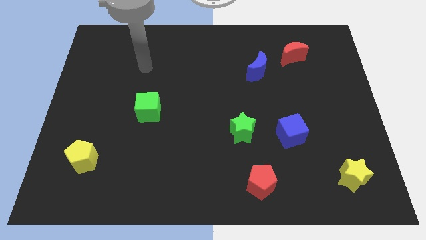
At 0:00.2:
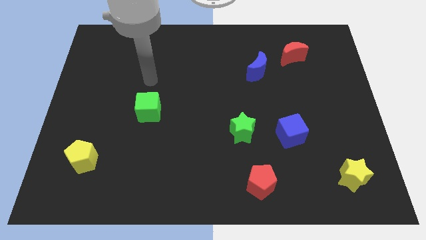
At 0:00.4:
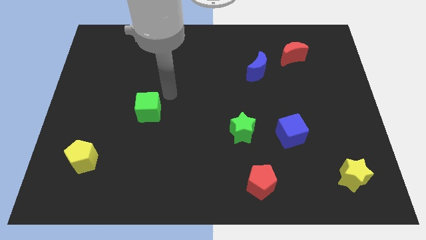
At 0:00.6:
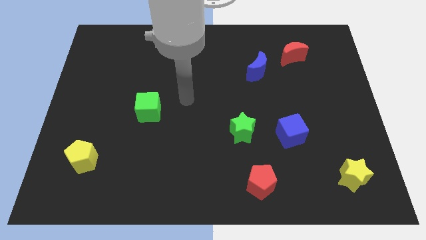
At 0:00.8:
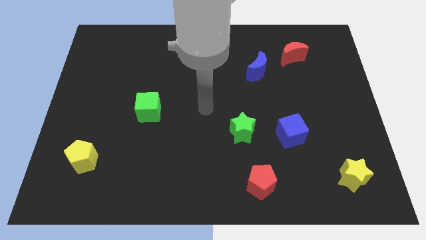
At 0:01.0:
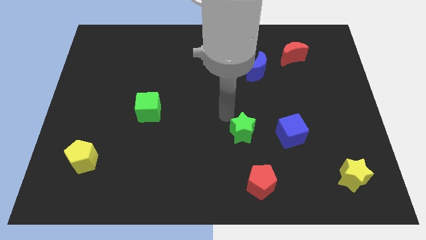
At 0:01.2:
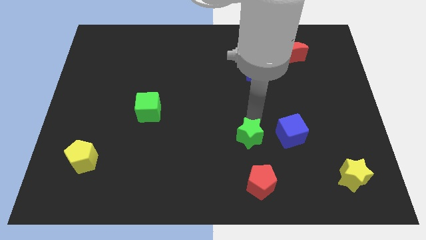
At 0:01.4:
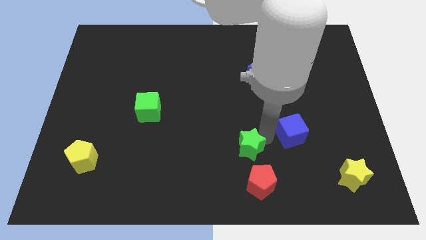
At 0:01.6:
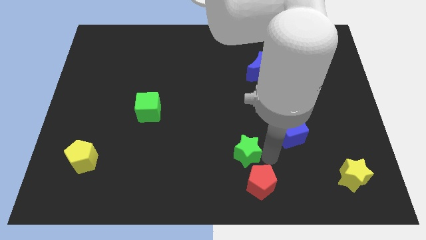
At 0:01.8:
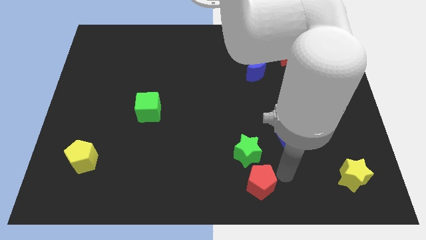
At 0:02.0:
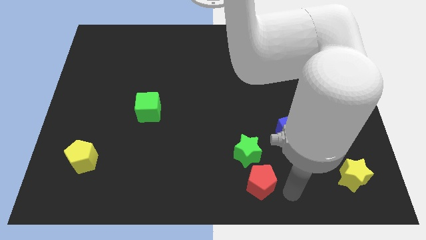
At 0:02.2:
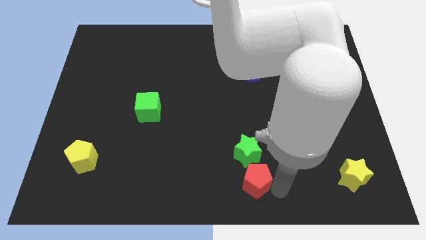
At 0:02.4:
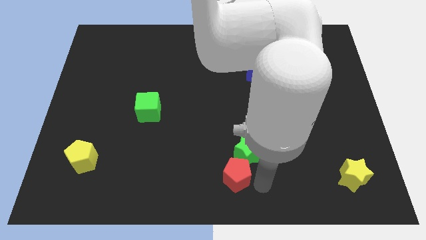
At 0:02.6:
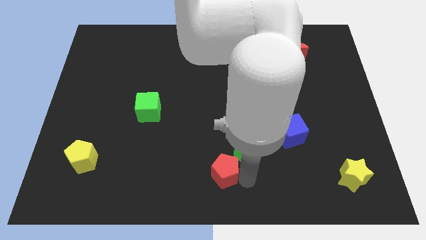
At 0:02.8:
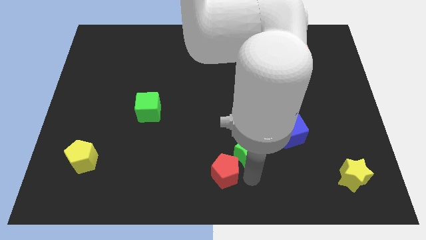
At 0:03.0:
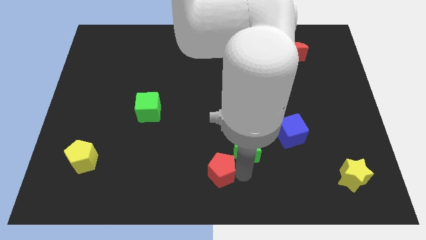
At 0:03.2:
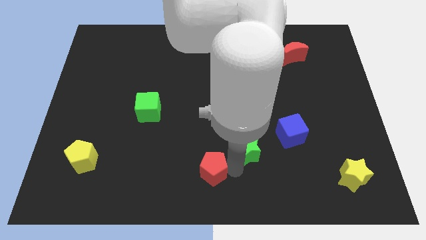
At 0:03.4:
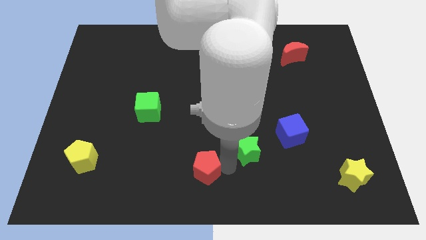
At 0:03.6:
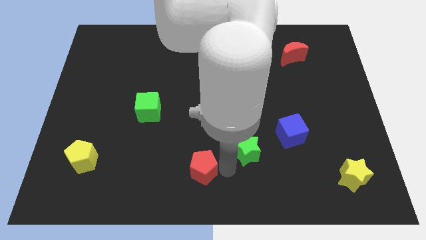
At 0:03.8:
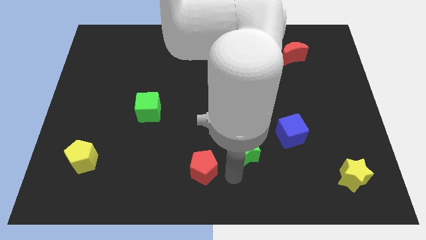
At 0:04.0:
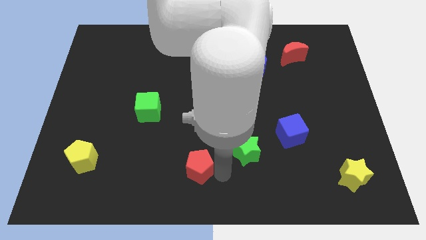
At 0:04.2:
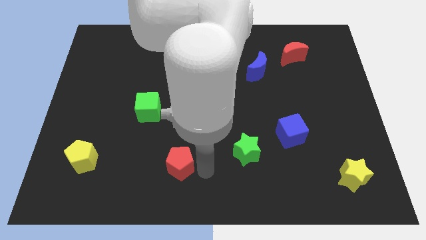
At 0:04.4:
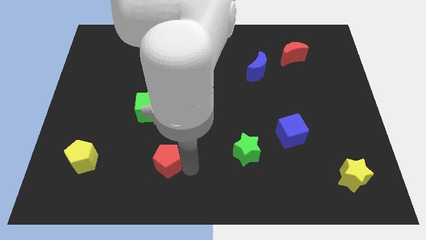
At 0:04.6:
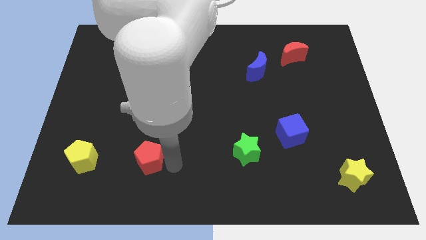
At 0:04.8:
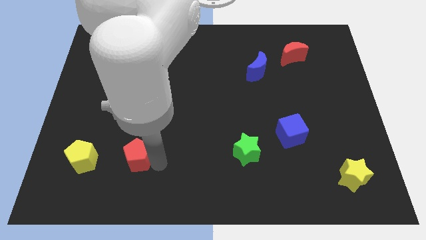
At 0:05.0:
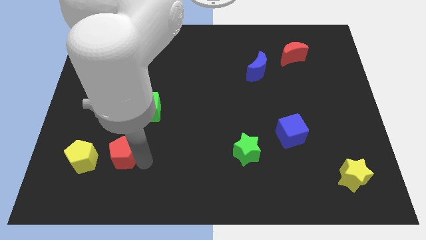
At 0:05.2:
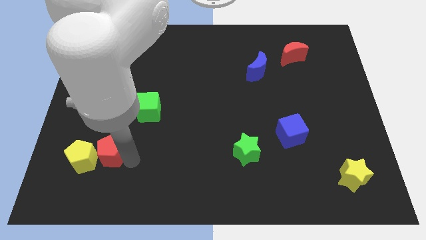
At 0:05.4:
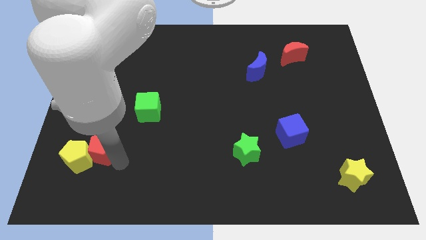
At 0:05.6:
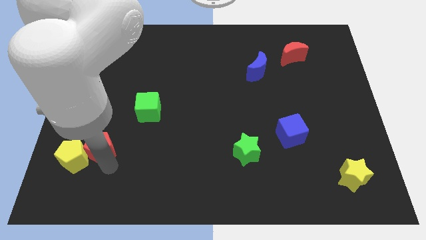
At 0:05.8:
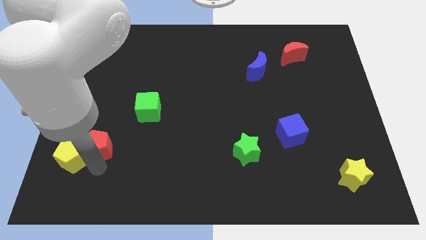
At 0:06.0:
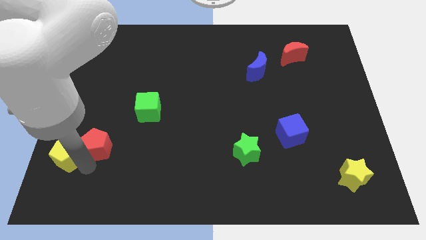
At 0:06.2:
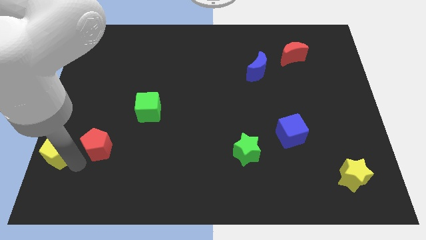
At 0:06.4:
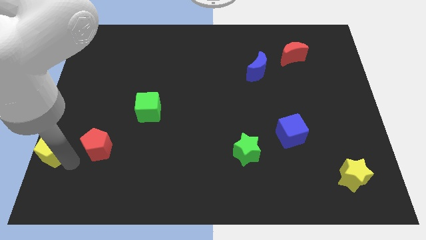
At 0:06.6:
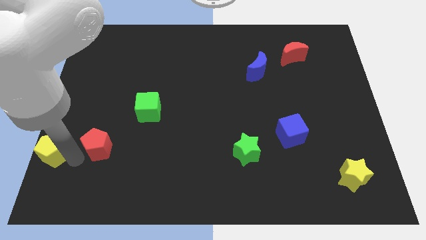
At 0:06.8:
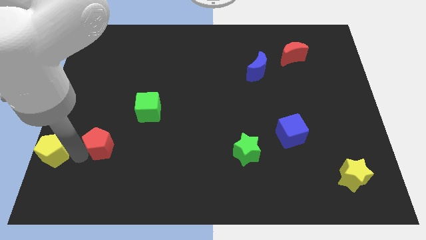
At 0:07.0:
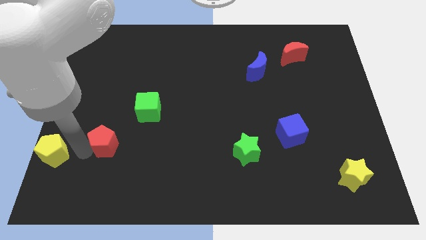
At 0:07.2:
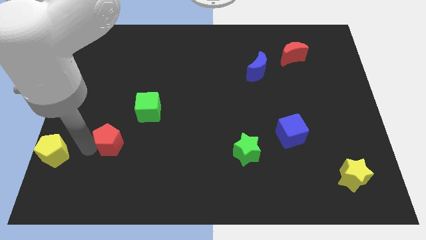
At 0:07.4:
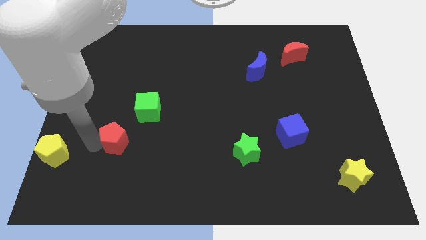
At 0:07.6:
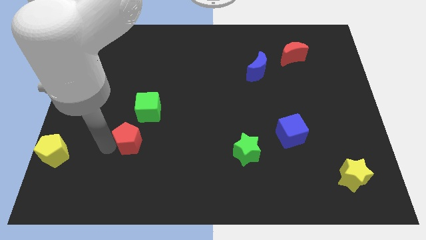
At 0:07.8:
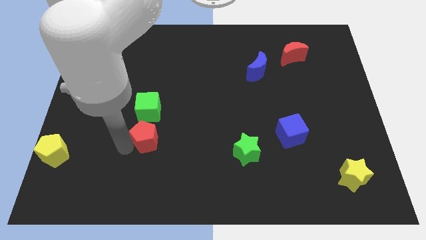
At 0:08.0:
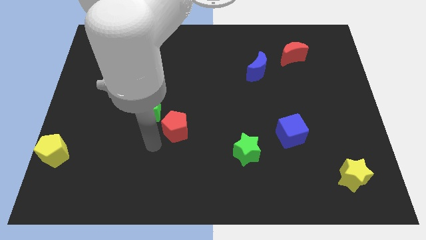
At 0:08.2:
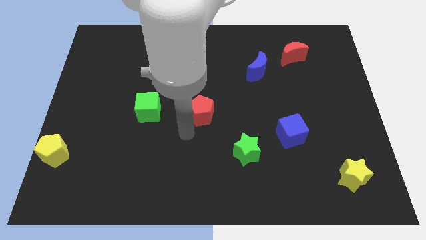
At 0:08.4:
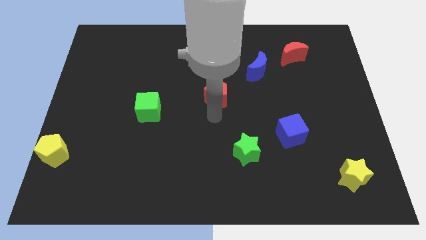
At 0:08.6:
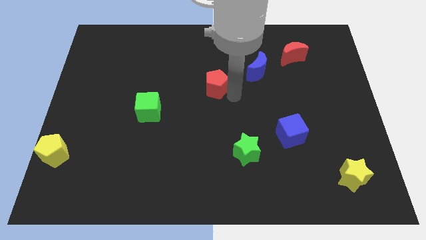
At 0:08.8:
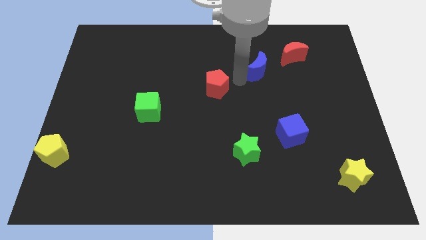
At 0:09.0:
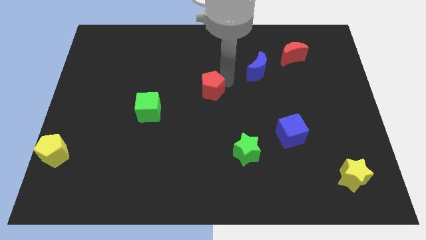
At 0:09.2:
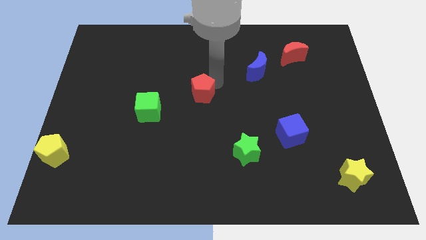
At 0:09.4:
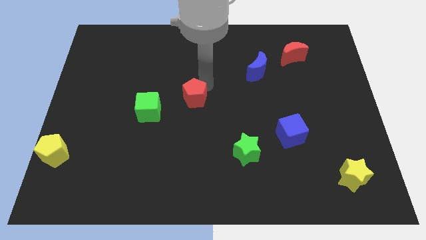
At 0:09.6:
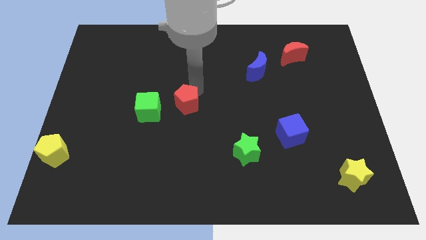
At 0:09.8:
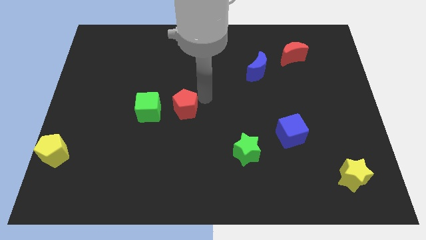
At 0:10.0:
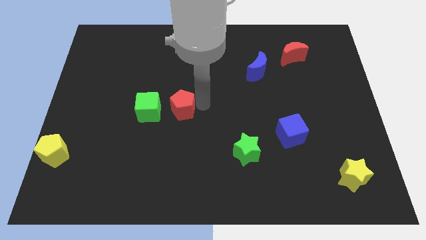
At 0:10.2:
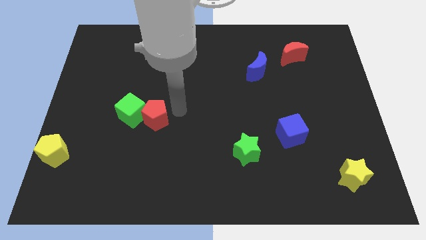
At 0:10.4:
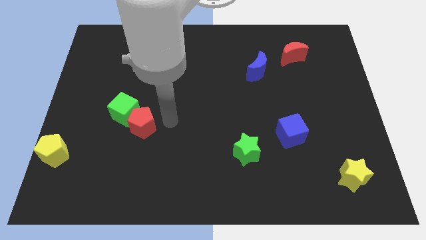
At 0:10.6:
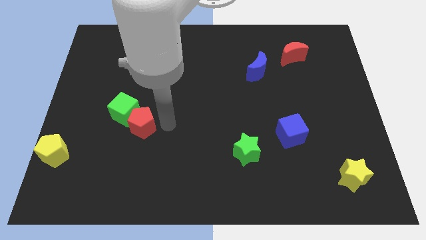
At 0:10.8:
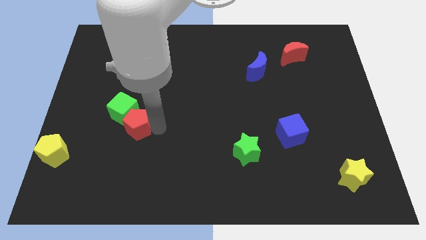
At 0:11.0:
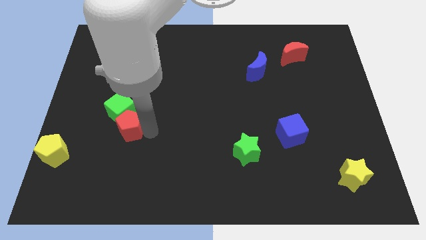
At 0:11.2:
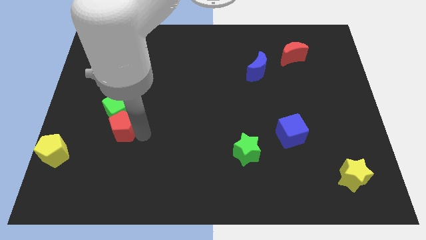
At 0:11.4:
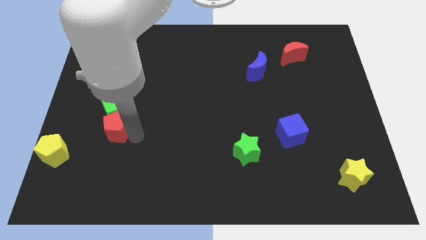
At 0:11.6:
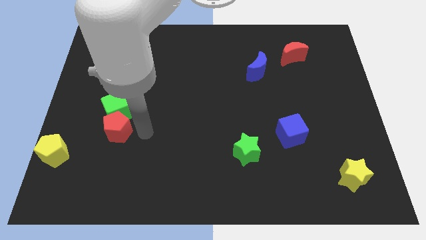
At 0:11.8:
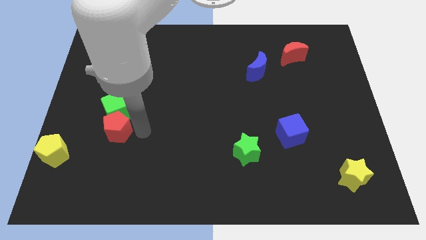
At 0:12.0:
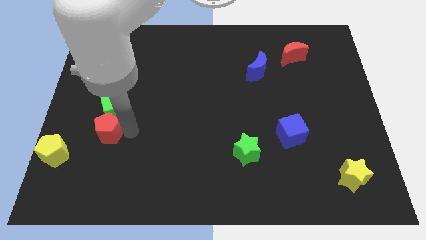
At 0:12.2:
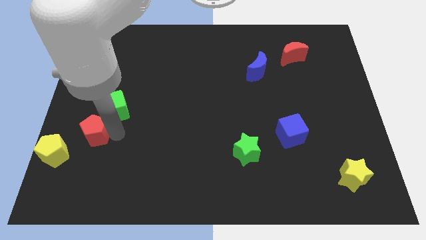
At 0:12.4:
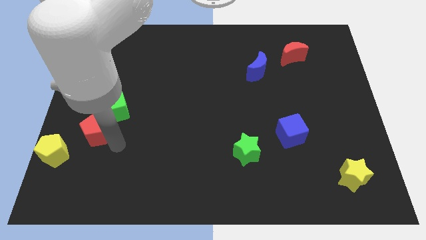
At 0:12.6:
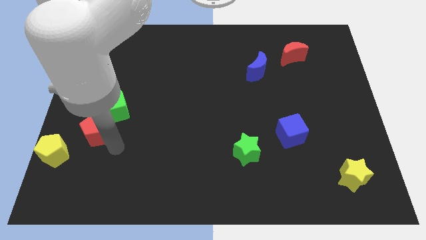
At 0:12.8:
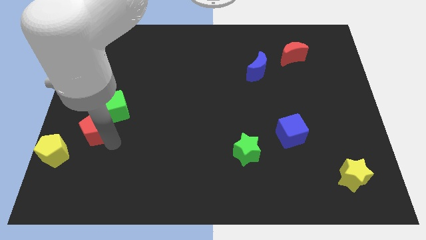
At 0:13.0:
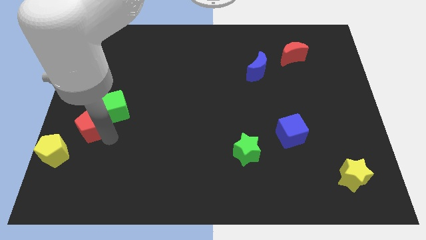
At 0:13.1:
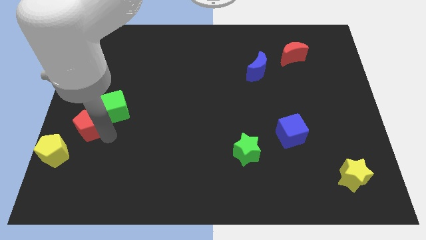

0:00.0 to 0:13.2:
move the red pentagon to the center left

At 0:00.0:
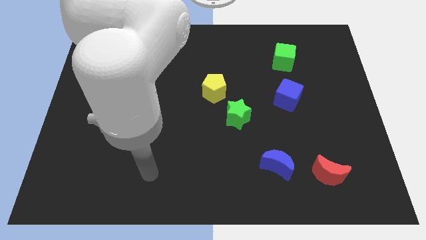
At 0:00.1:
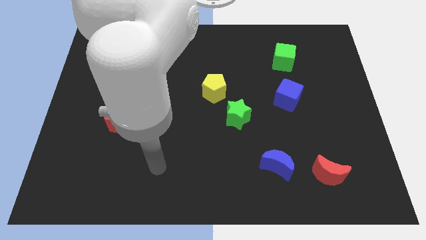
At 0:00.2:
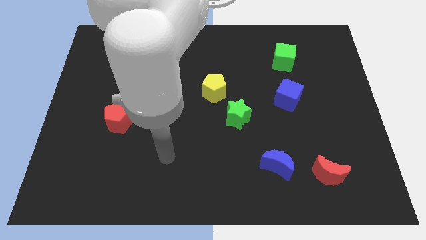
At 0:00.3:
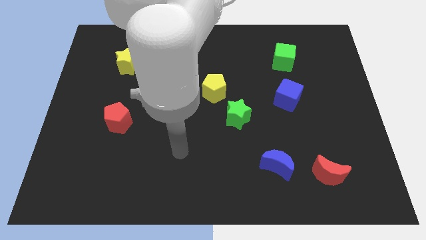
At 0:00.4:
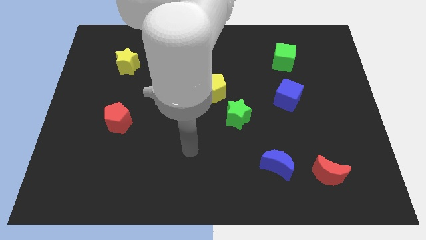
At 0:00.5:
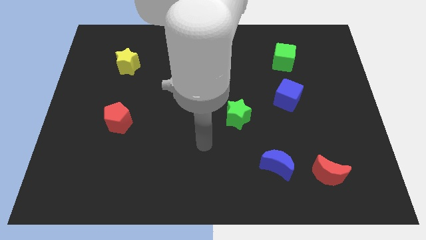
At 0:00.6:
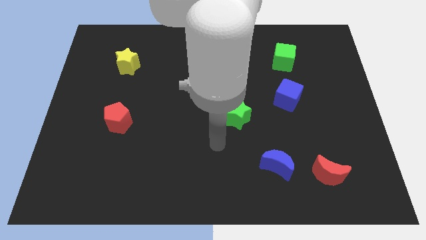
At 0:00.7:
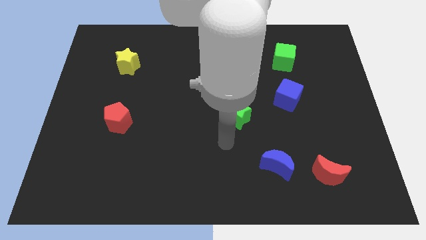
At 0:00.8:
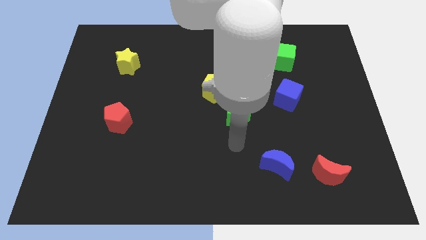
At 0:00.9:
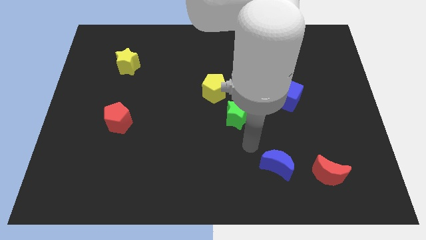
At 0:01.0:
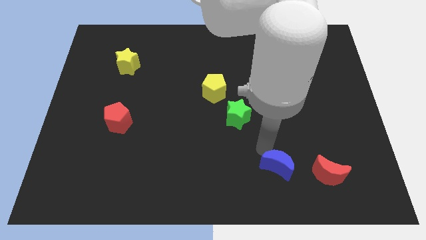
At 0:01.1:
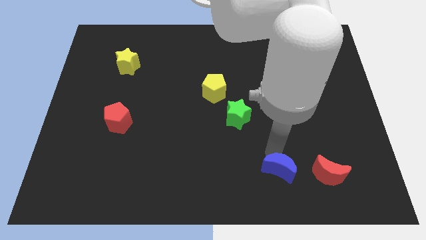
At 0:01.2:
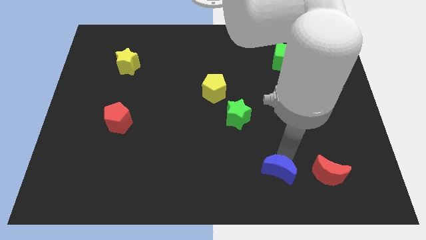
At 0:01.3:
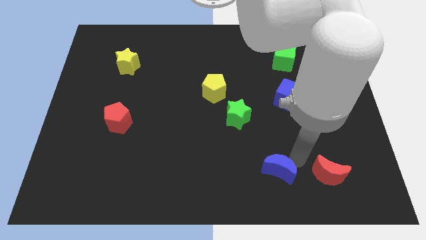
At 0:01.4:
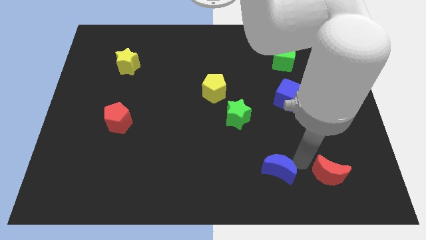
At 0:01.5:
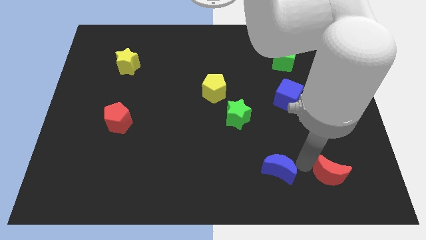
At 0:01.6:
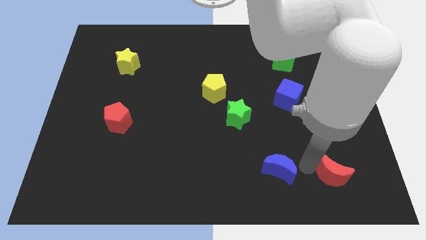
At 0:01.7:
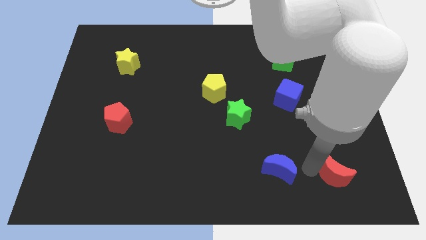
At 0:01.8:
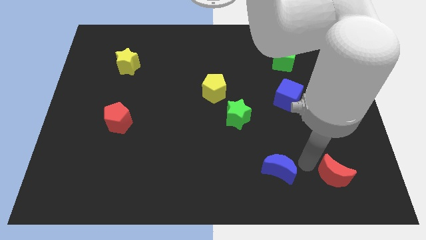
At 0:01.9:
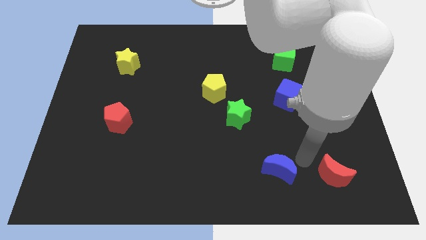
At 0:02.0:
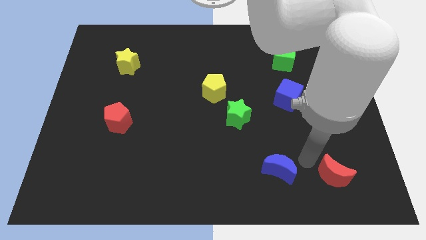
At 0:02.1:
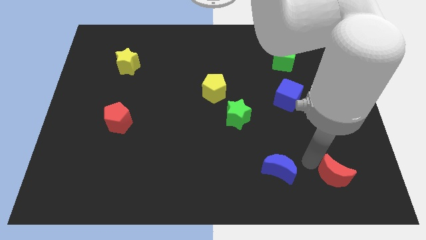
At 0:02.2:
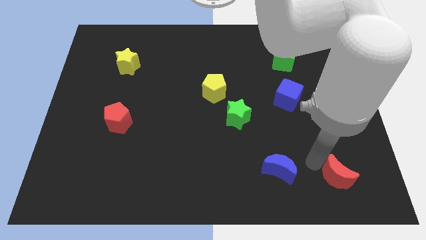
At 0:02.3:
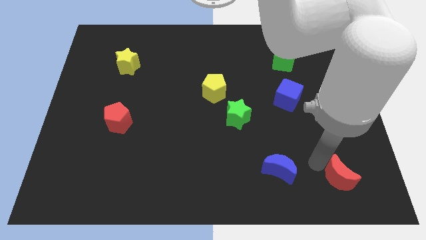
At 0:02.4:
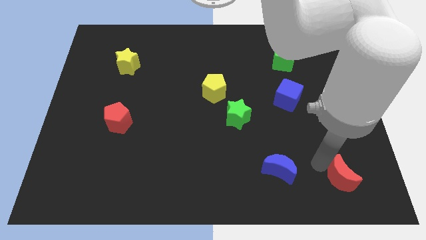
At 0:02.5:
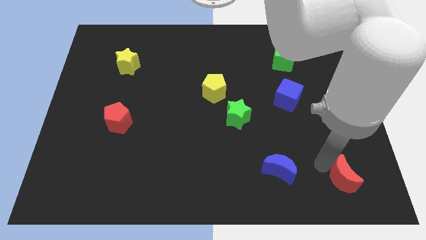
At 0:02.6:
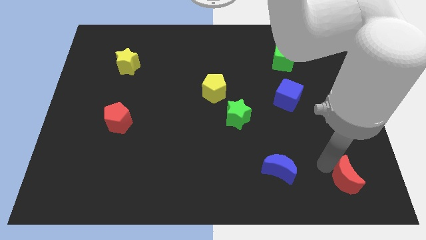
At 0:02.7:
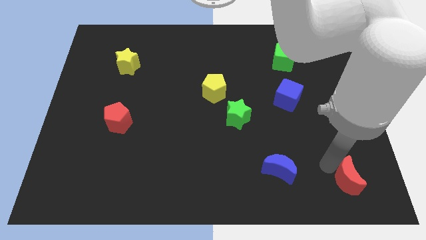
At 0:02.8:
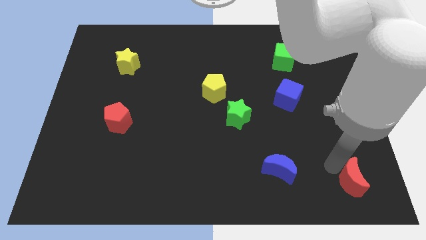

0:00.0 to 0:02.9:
slide the red moon to the bottom right of the board
